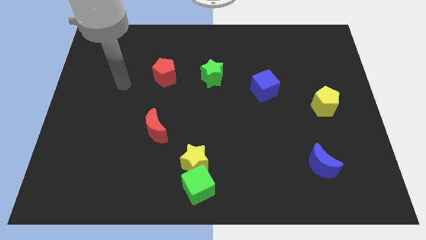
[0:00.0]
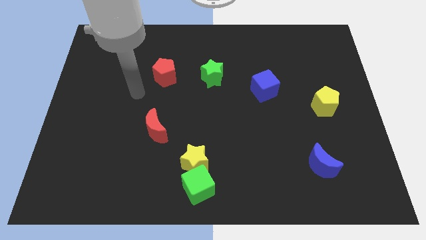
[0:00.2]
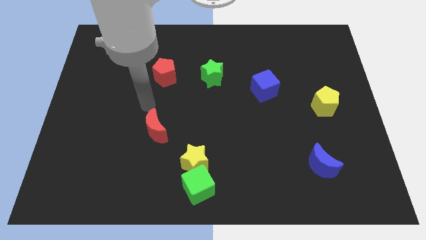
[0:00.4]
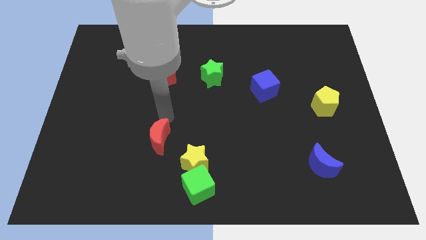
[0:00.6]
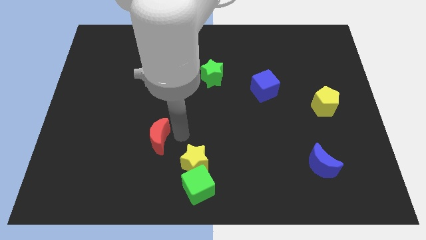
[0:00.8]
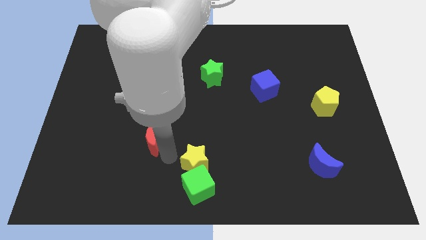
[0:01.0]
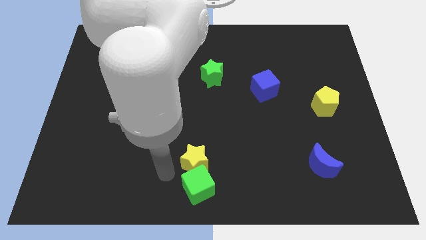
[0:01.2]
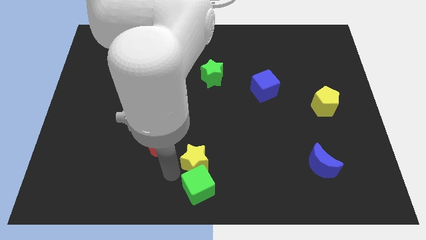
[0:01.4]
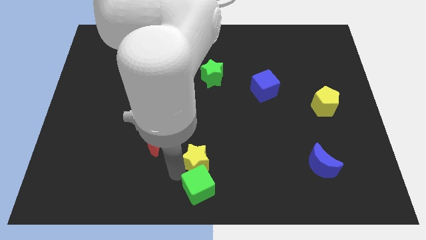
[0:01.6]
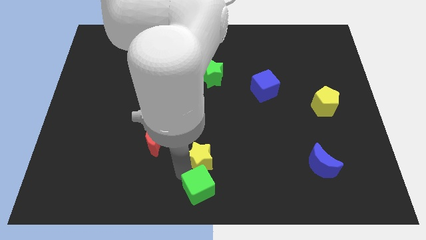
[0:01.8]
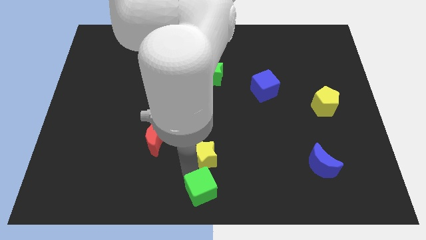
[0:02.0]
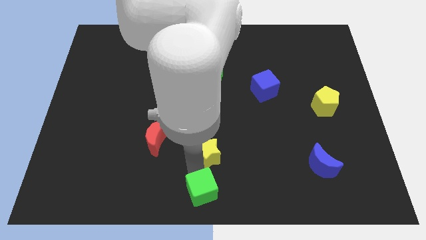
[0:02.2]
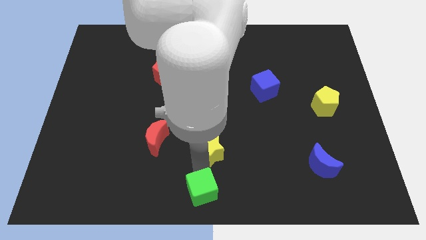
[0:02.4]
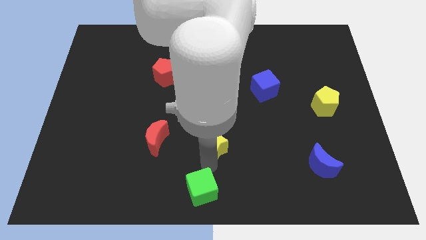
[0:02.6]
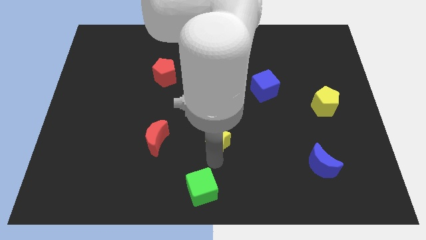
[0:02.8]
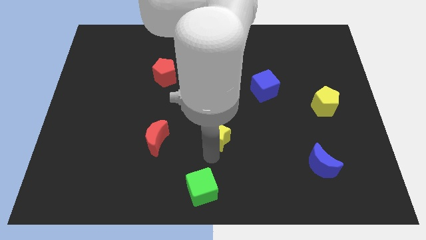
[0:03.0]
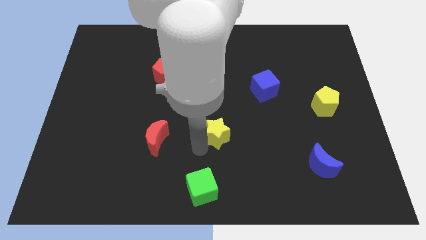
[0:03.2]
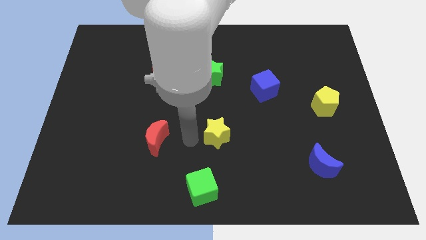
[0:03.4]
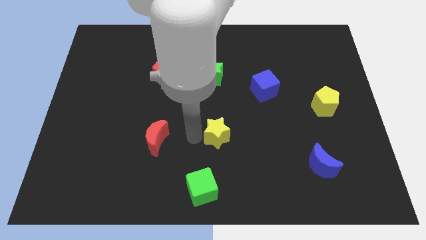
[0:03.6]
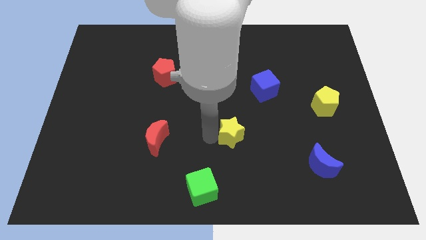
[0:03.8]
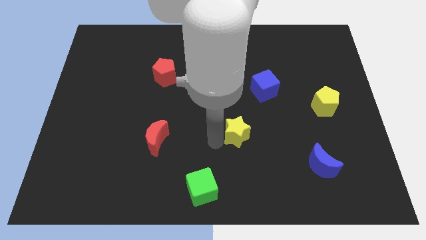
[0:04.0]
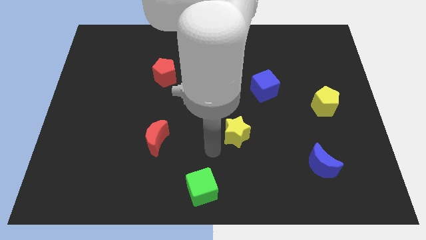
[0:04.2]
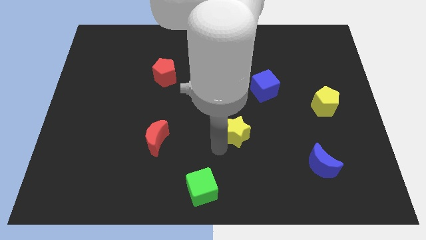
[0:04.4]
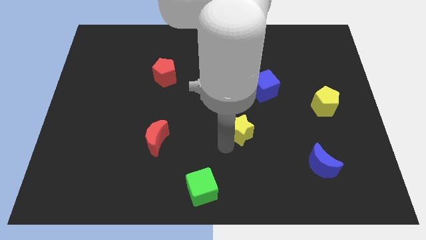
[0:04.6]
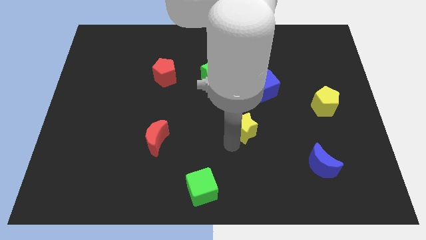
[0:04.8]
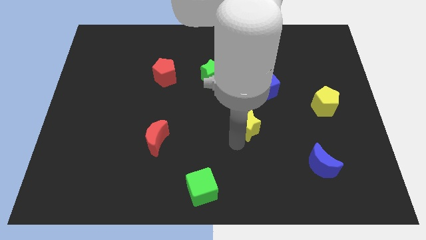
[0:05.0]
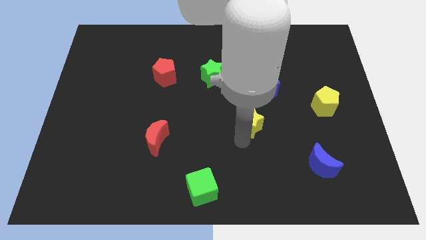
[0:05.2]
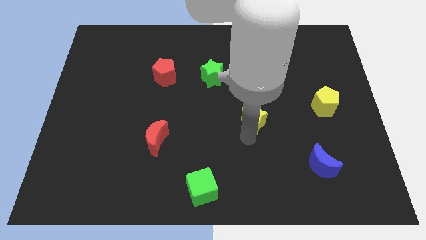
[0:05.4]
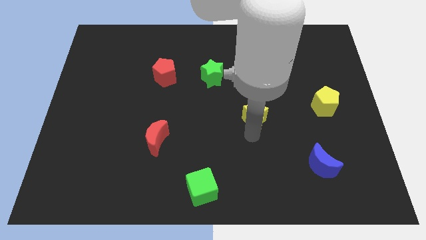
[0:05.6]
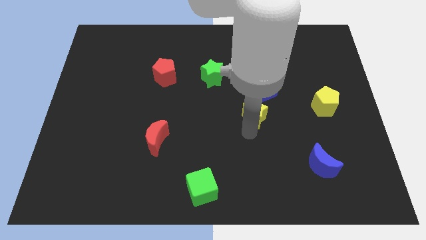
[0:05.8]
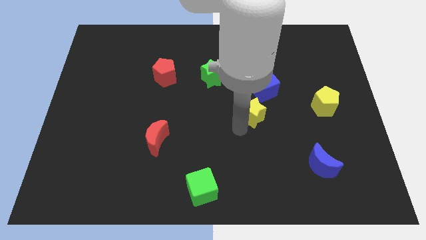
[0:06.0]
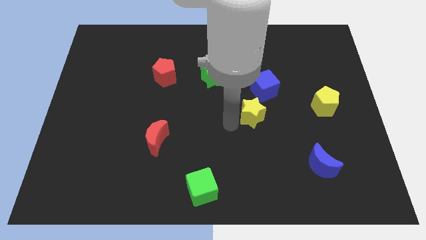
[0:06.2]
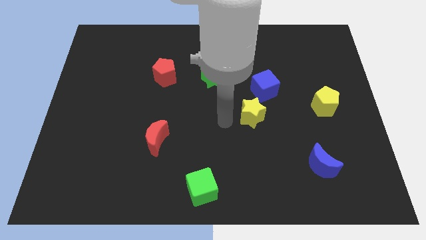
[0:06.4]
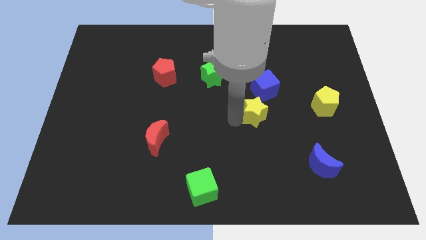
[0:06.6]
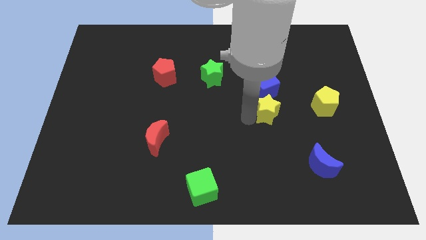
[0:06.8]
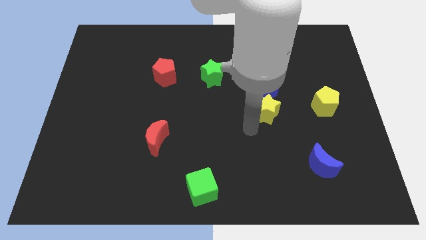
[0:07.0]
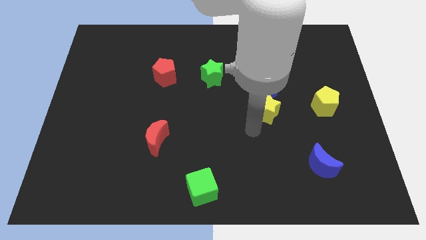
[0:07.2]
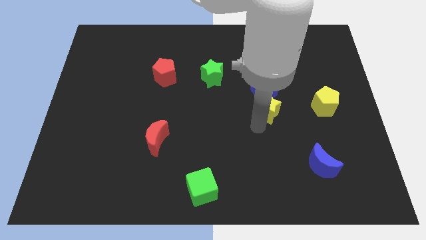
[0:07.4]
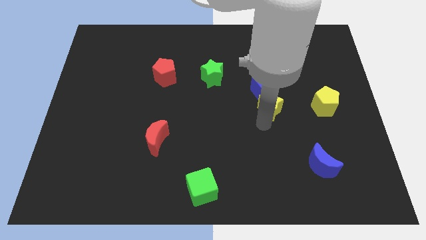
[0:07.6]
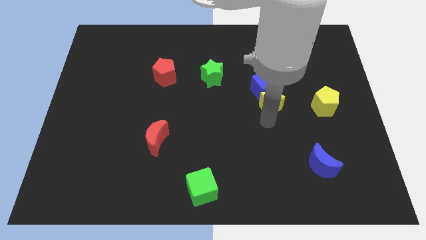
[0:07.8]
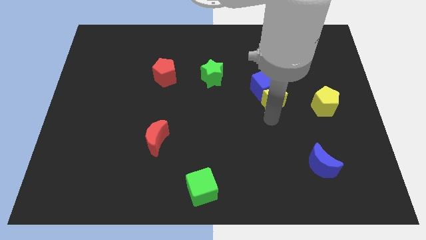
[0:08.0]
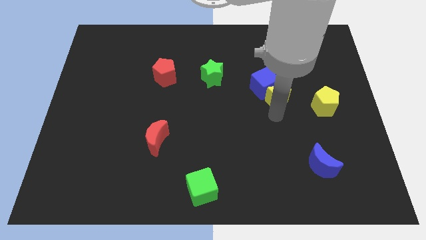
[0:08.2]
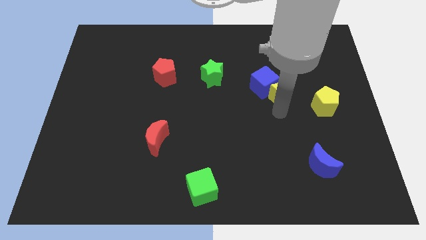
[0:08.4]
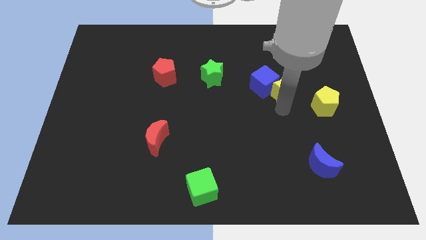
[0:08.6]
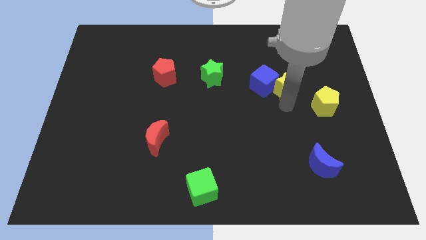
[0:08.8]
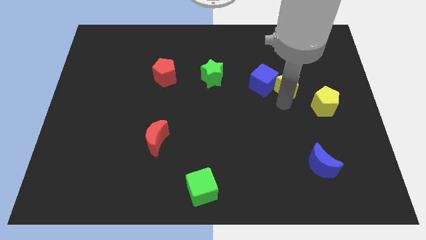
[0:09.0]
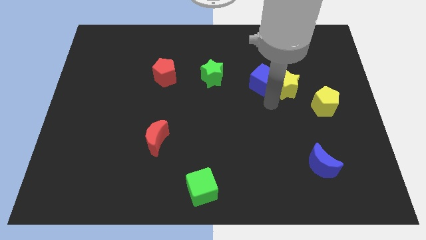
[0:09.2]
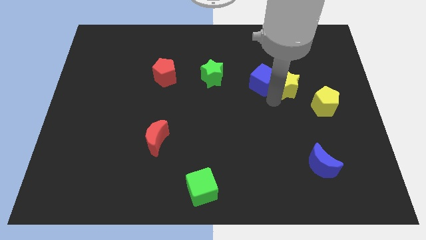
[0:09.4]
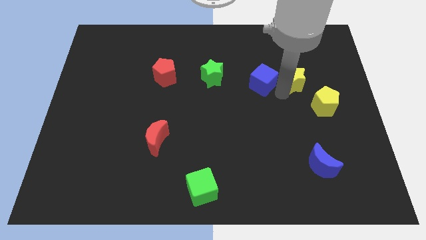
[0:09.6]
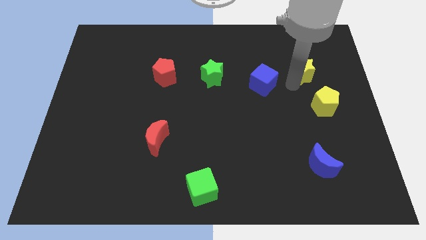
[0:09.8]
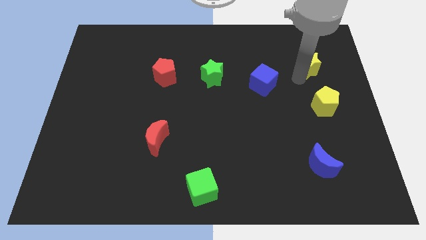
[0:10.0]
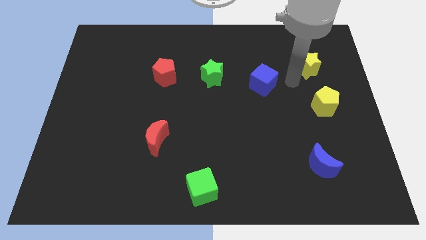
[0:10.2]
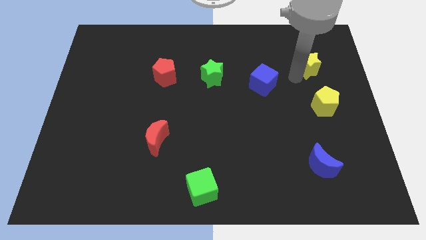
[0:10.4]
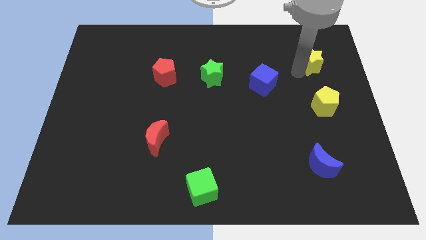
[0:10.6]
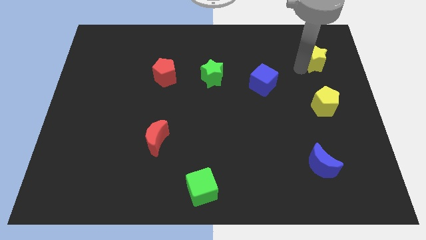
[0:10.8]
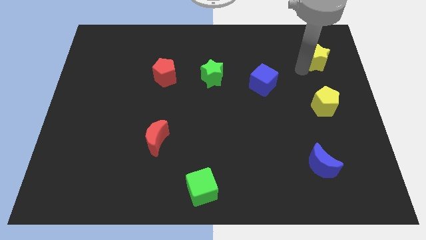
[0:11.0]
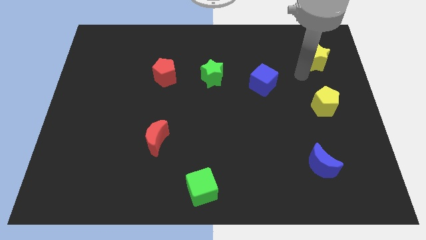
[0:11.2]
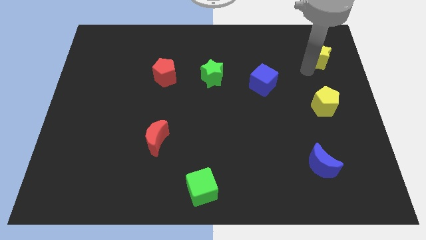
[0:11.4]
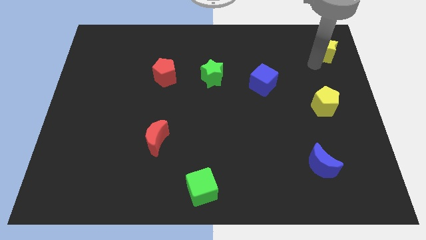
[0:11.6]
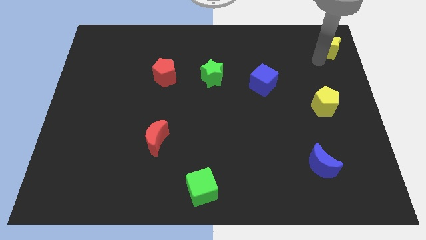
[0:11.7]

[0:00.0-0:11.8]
move the yellow star to the upper right corner
